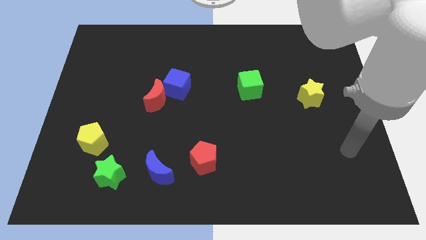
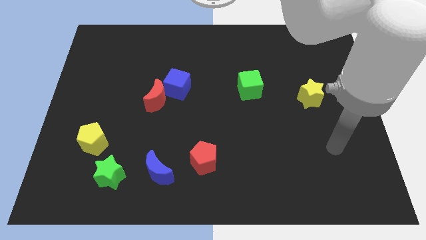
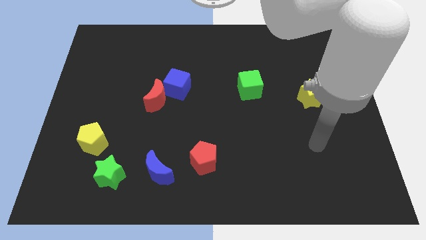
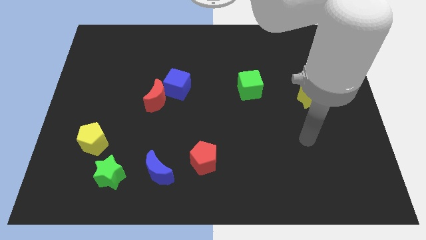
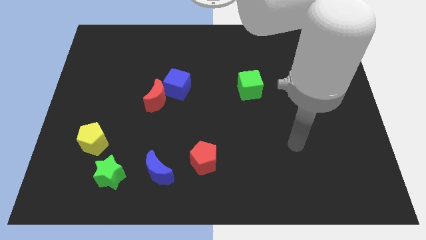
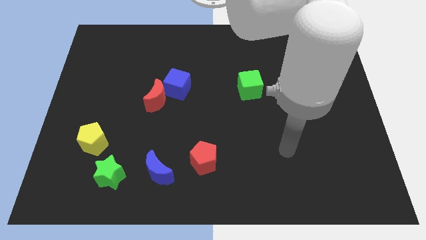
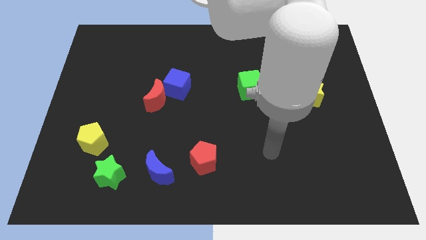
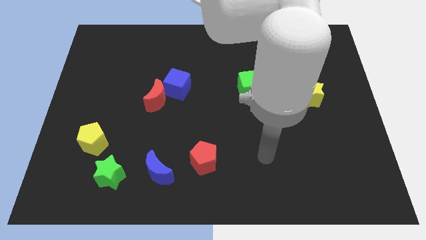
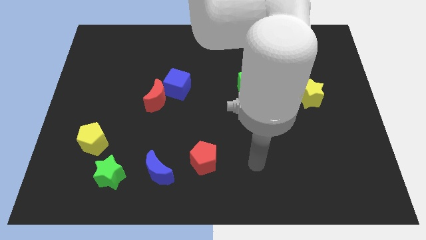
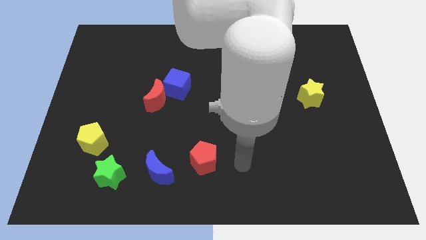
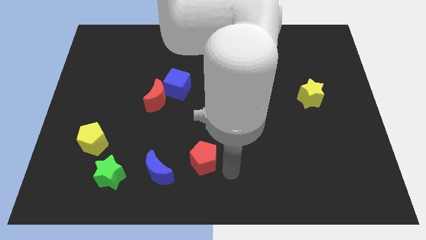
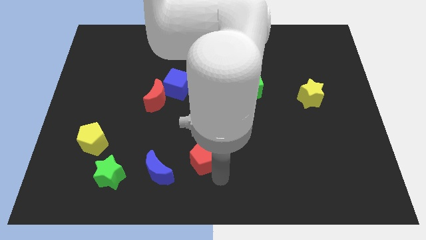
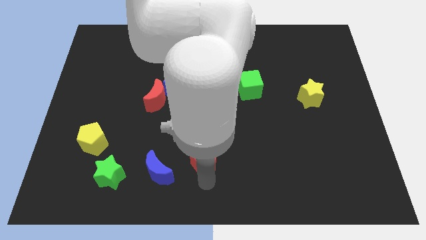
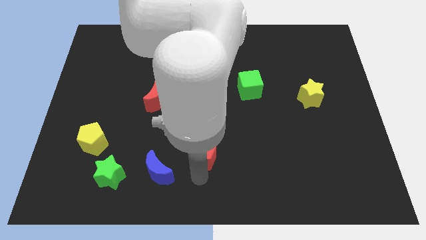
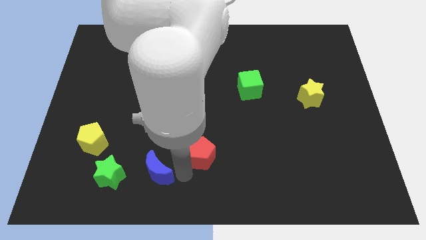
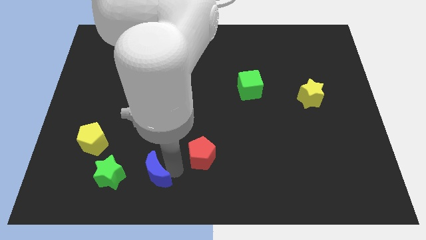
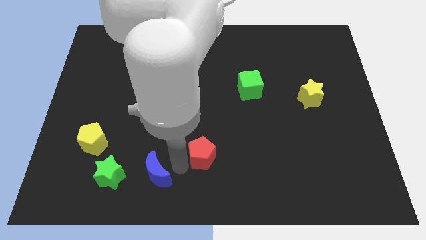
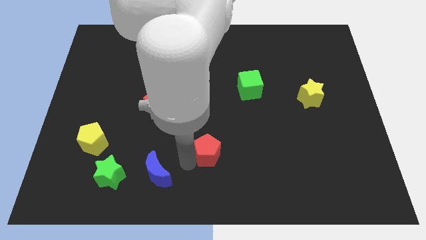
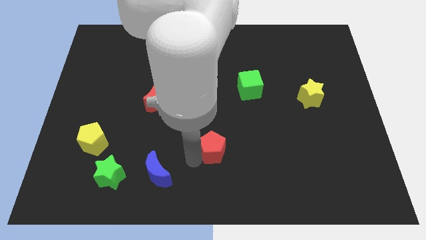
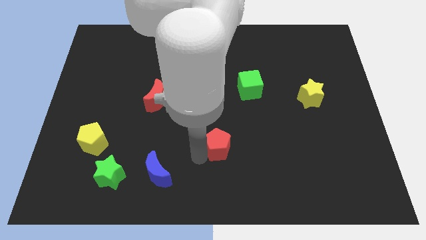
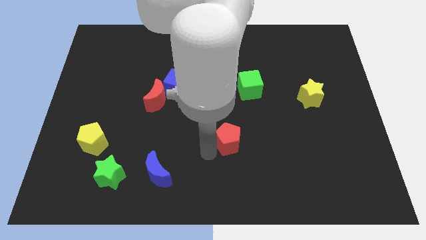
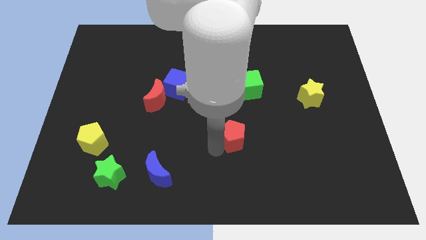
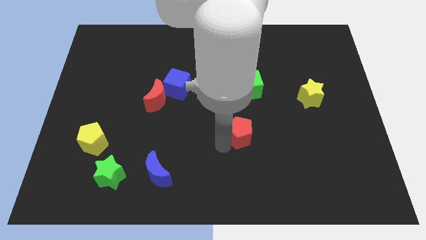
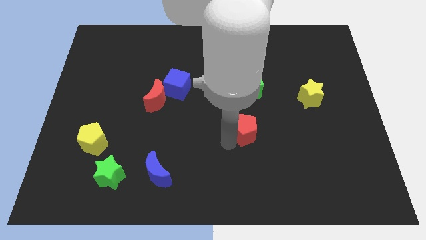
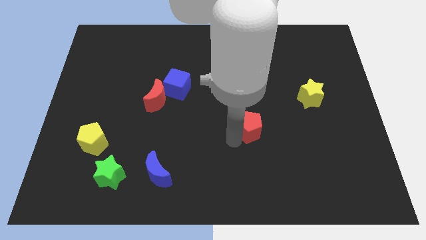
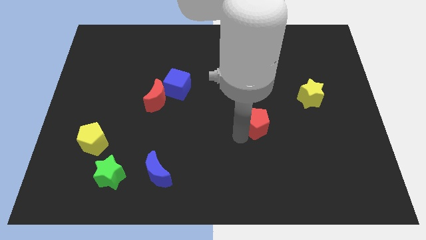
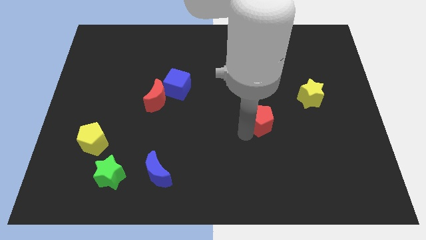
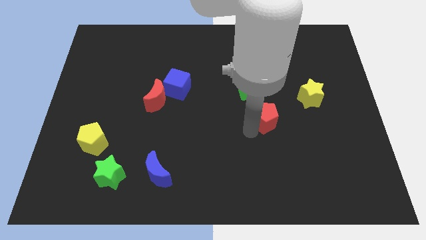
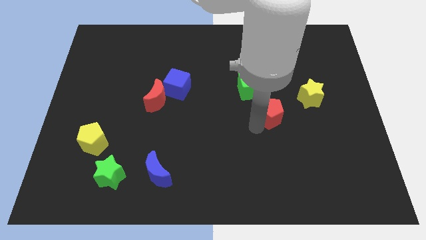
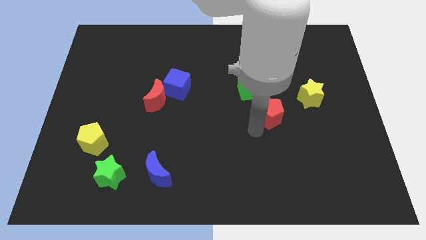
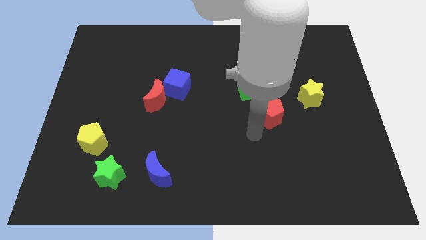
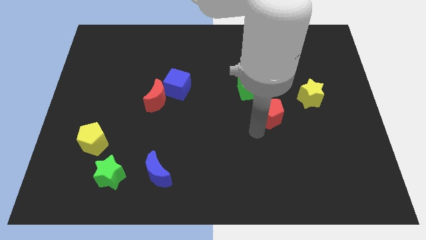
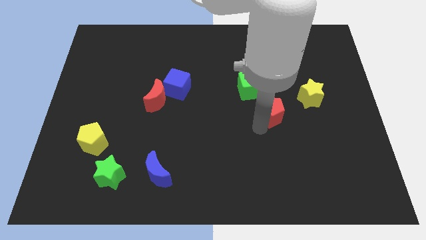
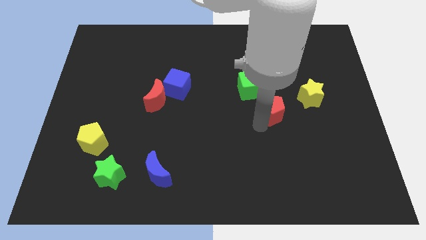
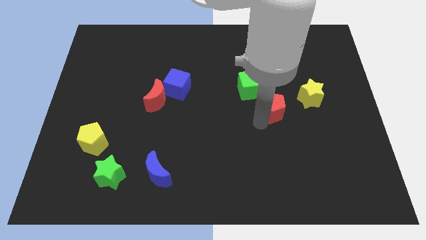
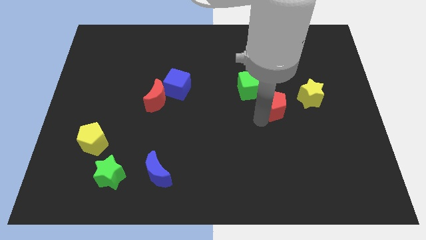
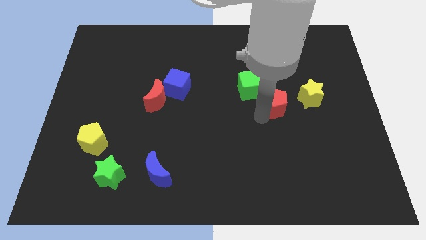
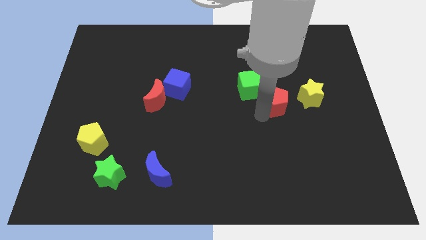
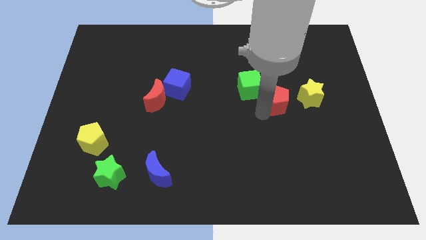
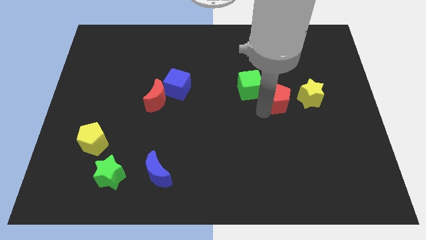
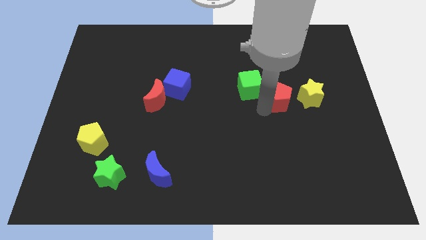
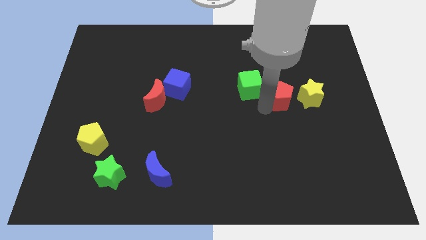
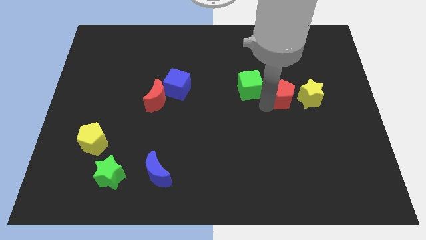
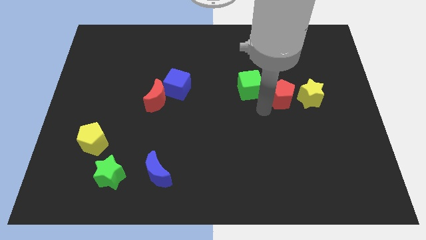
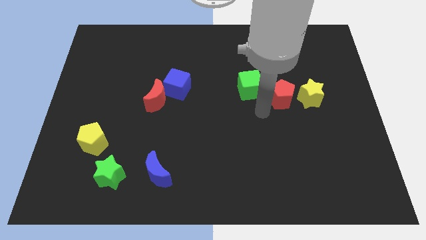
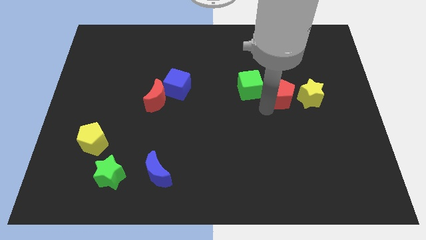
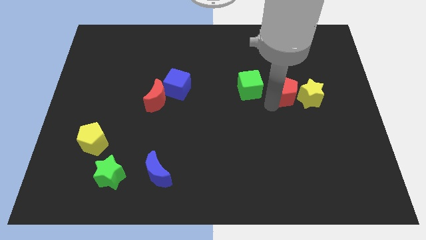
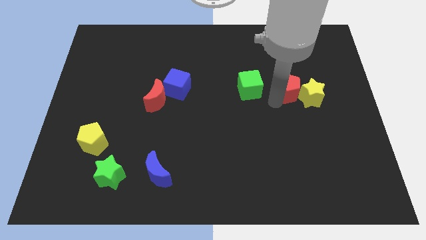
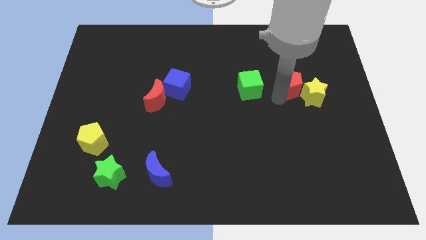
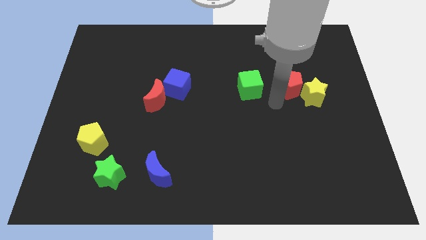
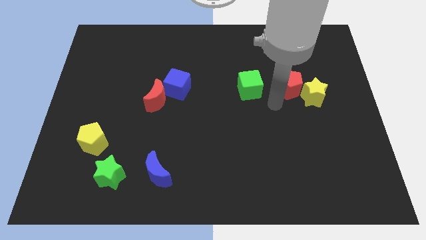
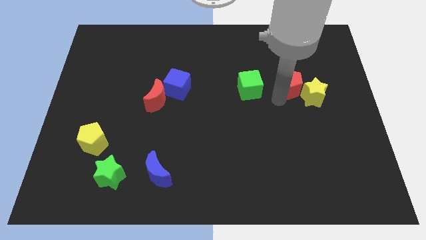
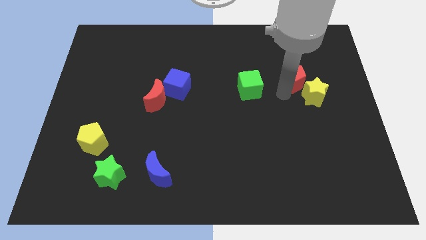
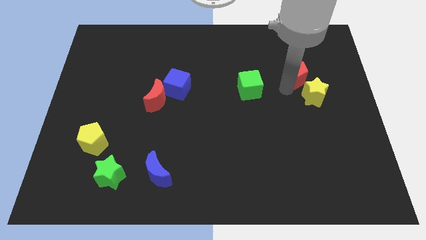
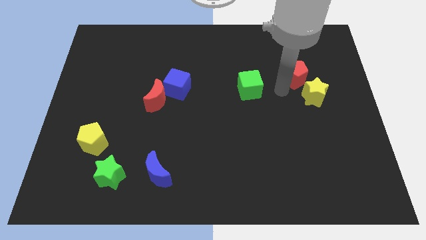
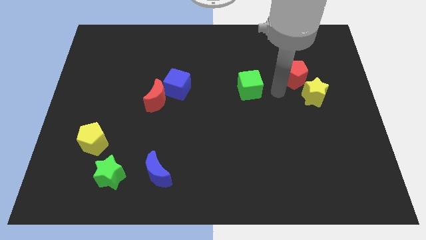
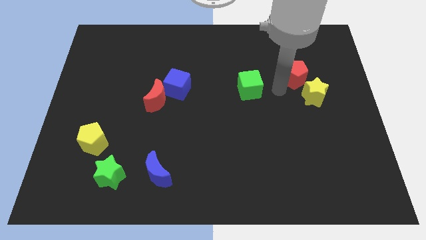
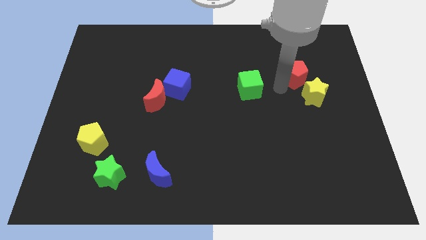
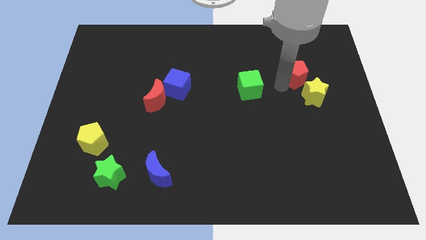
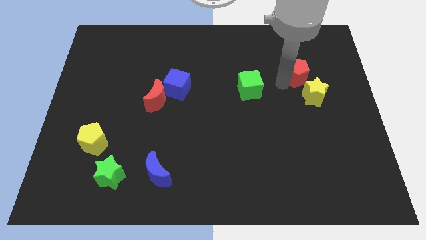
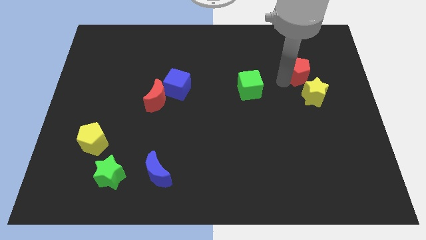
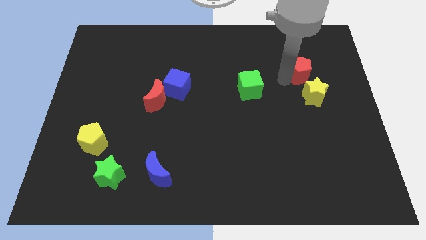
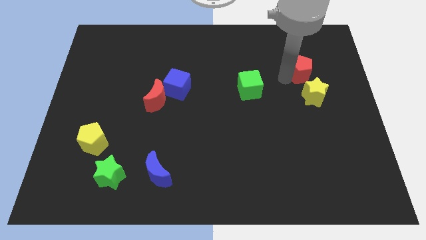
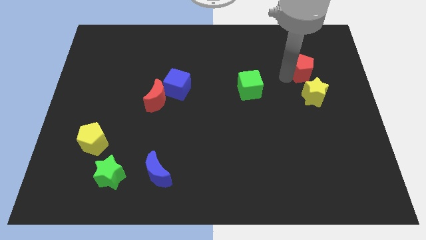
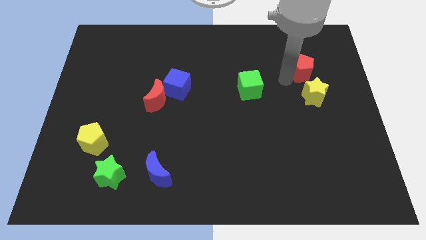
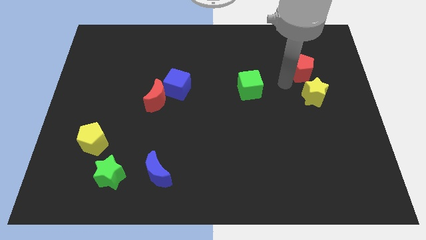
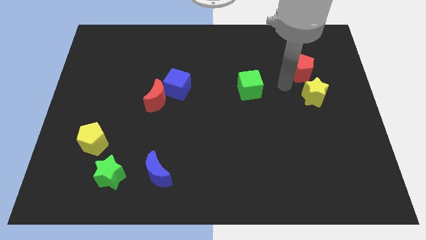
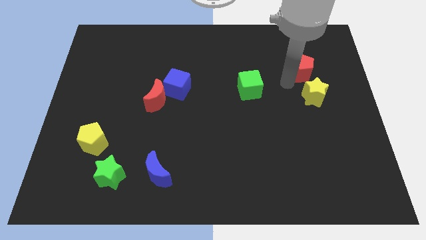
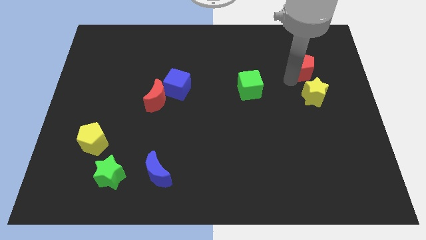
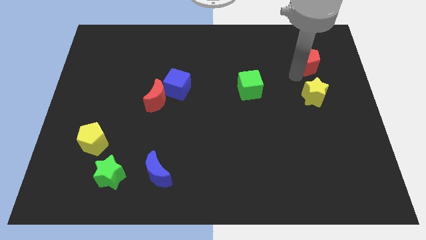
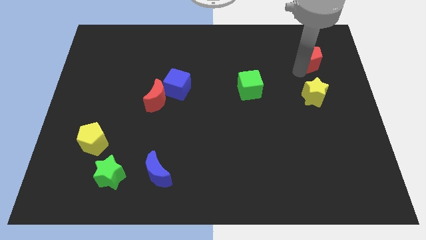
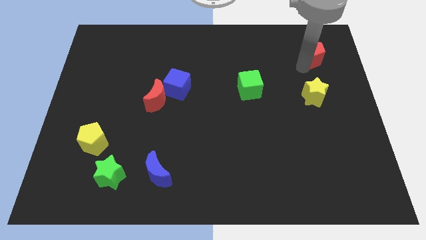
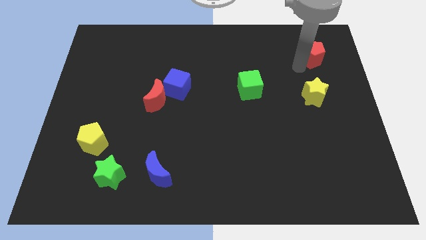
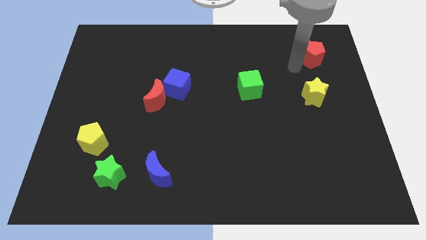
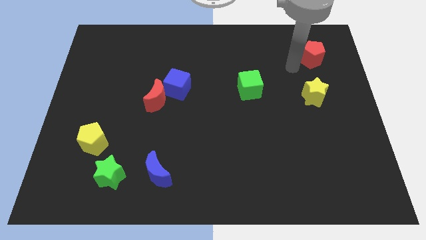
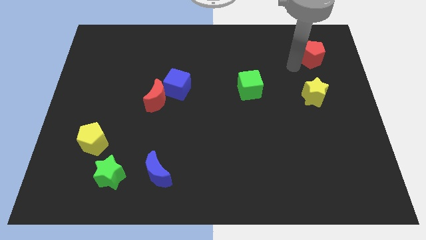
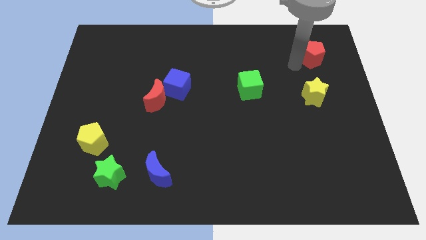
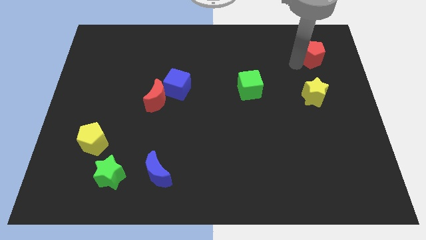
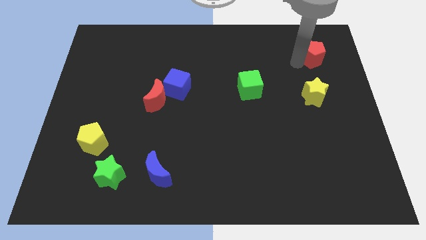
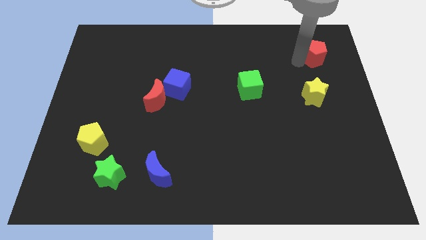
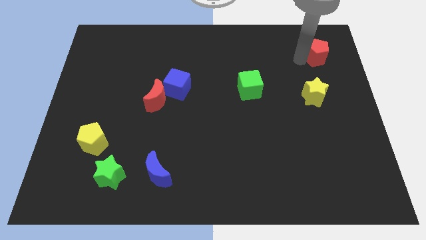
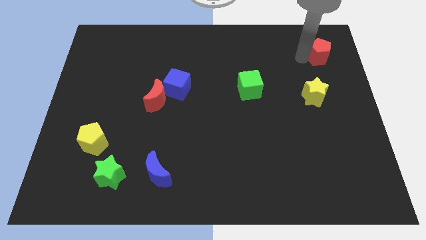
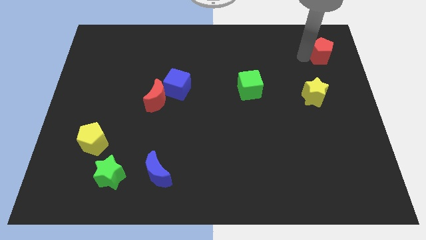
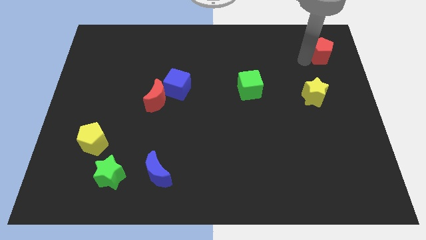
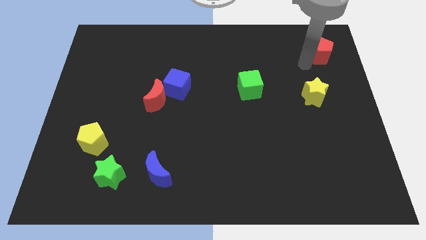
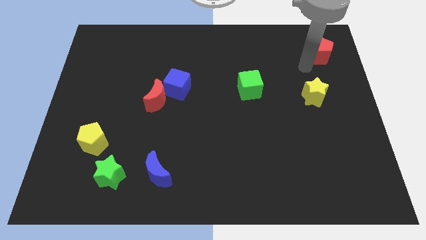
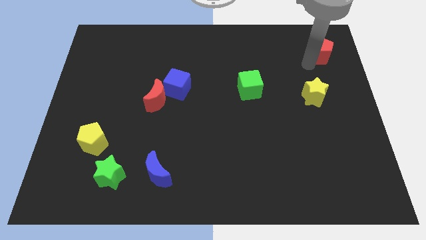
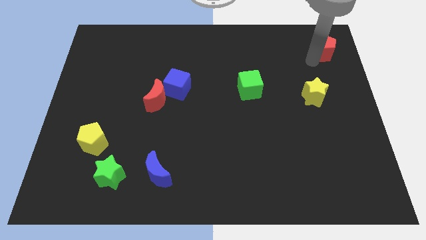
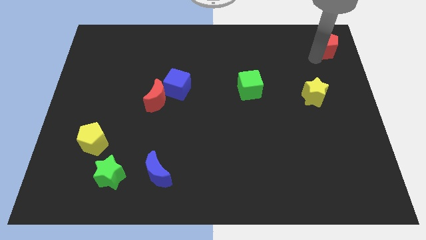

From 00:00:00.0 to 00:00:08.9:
move the red pentagon to the top right
